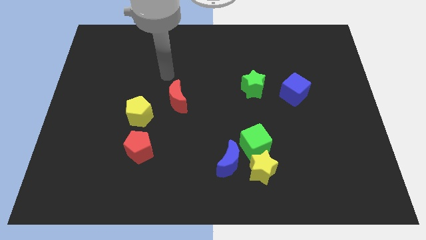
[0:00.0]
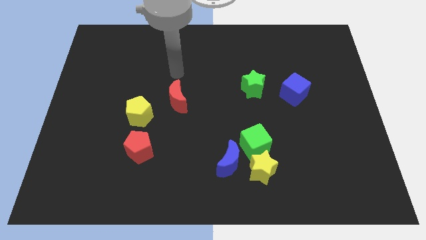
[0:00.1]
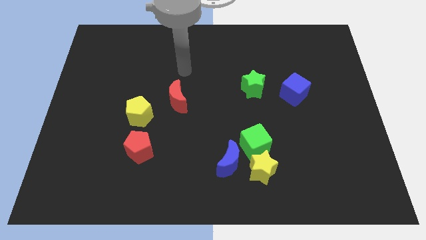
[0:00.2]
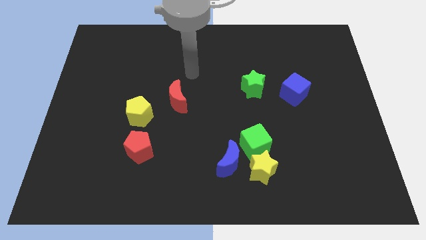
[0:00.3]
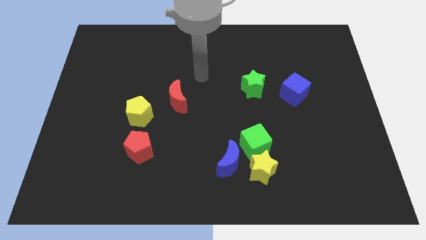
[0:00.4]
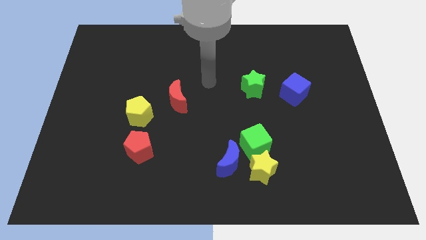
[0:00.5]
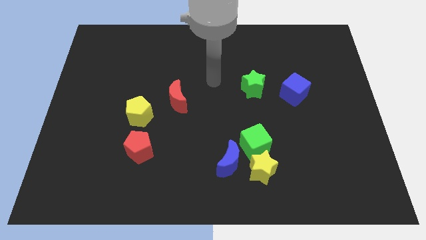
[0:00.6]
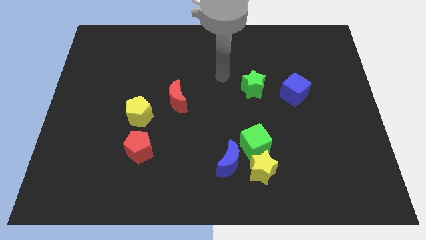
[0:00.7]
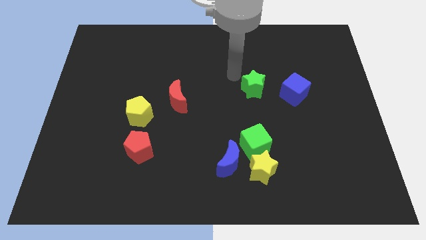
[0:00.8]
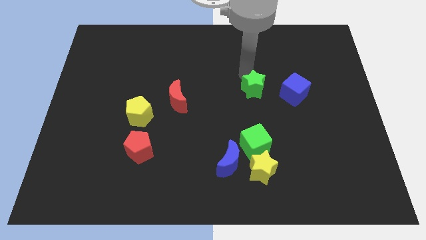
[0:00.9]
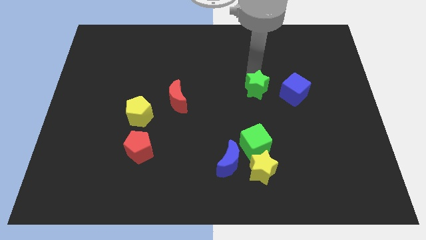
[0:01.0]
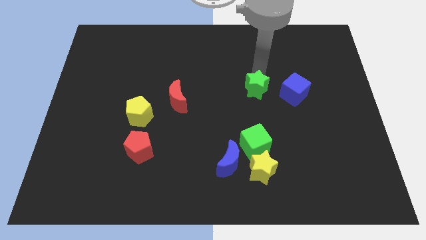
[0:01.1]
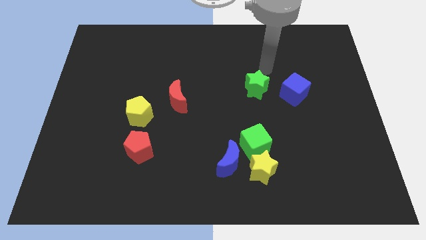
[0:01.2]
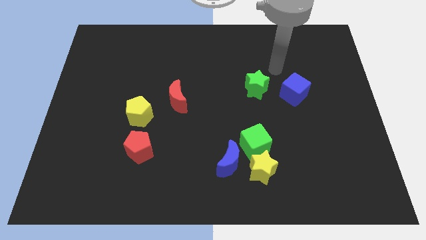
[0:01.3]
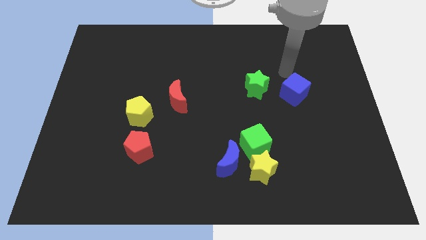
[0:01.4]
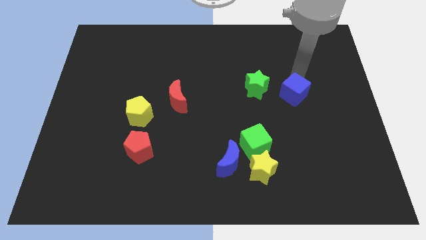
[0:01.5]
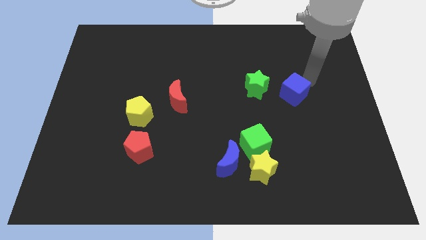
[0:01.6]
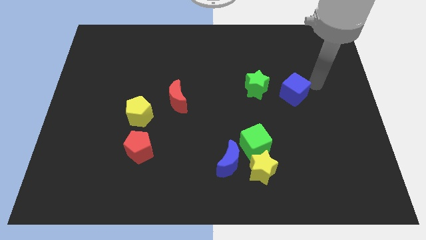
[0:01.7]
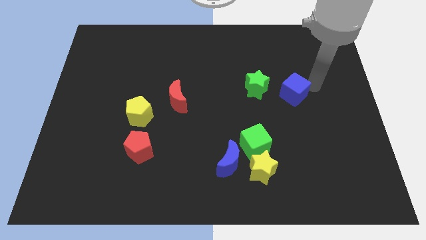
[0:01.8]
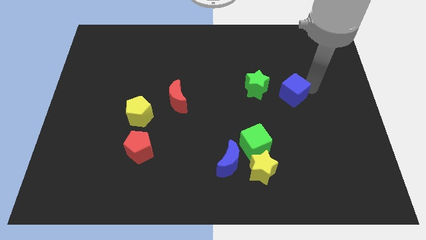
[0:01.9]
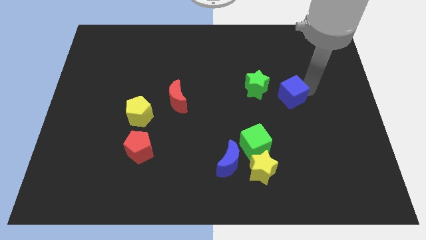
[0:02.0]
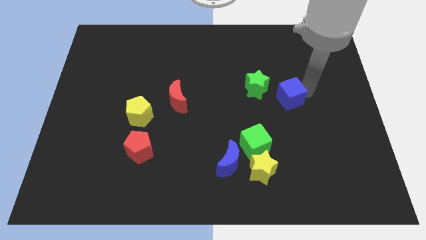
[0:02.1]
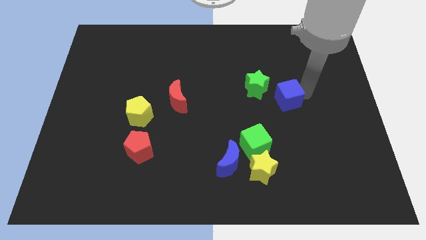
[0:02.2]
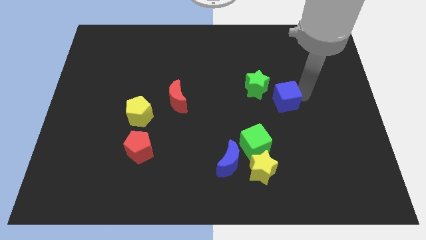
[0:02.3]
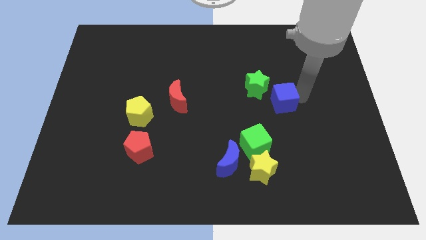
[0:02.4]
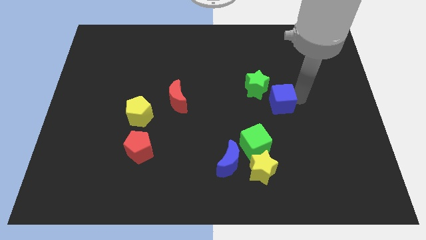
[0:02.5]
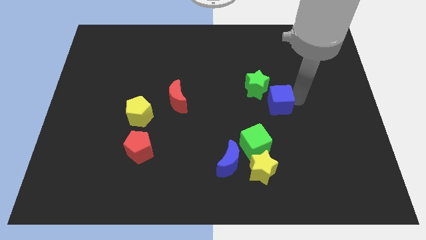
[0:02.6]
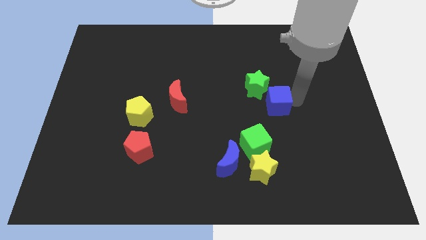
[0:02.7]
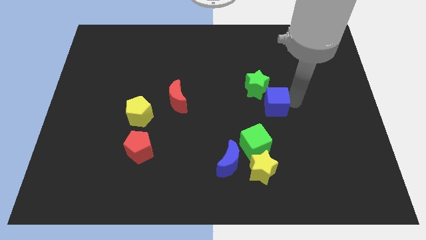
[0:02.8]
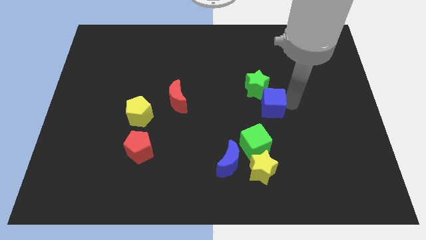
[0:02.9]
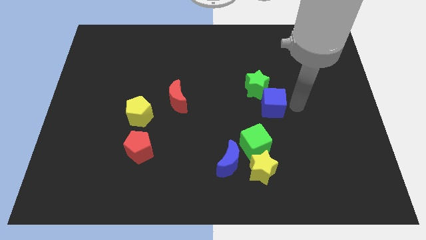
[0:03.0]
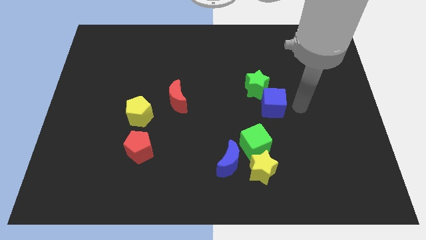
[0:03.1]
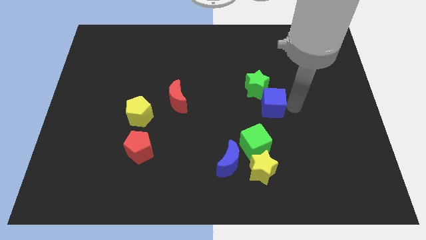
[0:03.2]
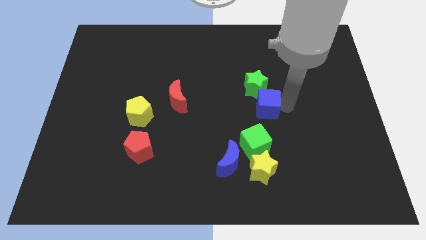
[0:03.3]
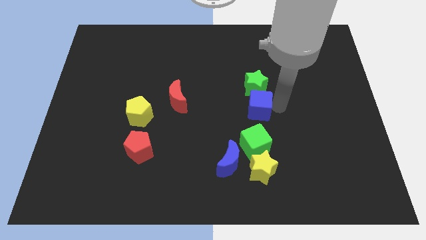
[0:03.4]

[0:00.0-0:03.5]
slightly move the blue cube left

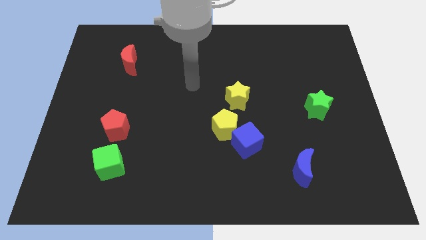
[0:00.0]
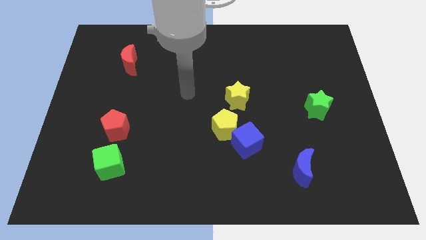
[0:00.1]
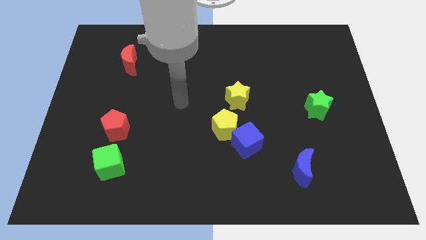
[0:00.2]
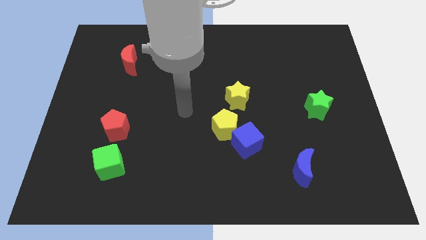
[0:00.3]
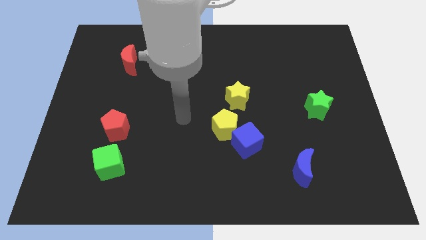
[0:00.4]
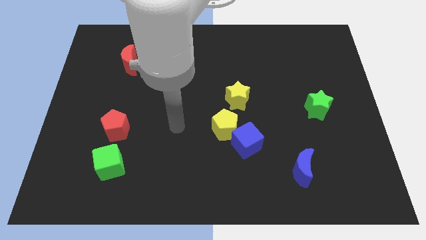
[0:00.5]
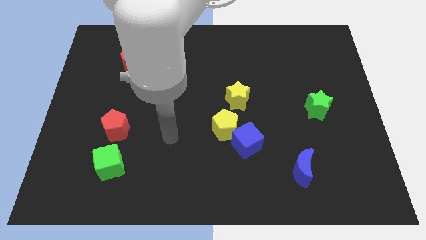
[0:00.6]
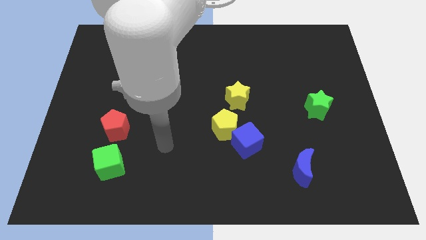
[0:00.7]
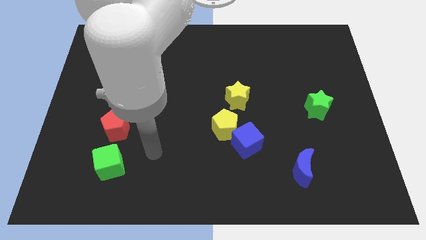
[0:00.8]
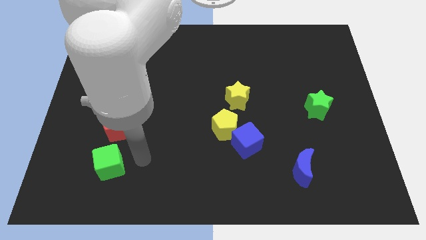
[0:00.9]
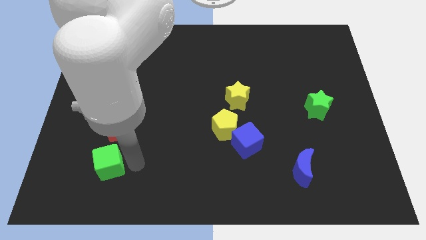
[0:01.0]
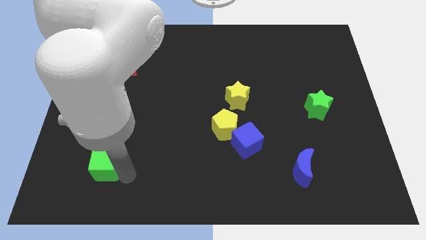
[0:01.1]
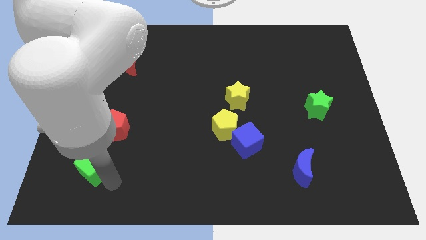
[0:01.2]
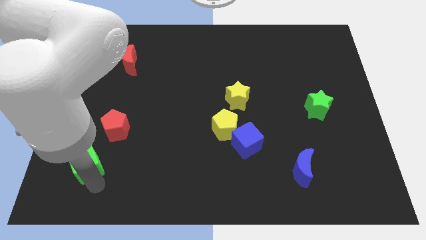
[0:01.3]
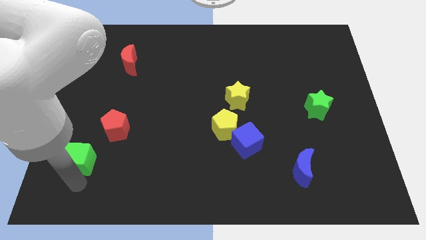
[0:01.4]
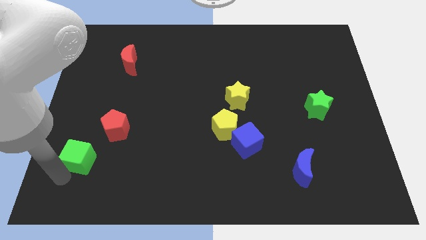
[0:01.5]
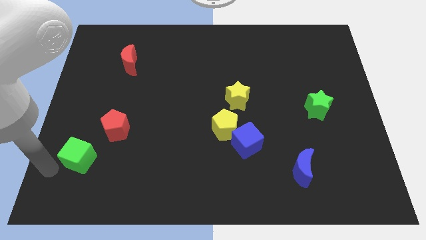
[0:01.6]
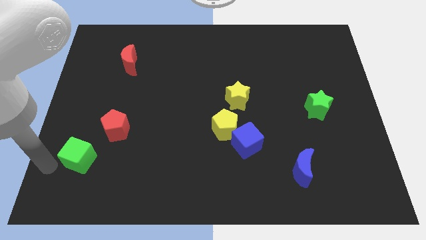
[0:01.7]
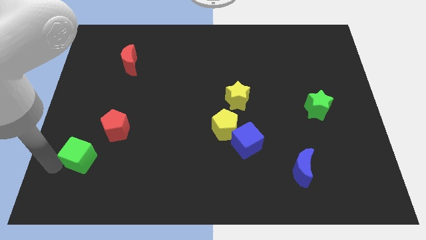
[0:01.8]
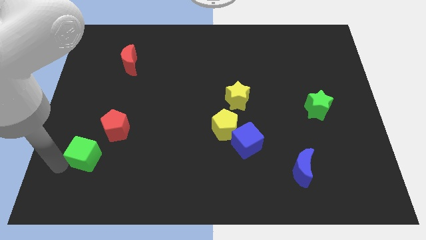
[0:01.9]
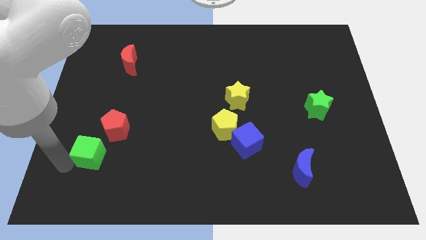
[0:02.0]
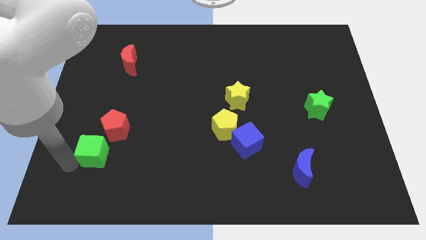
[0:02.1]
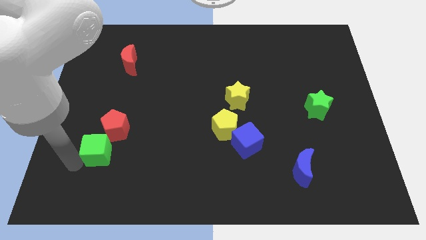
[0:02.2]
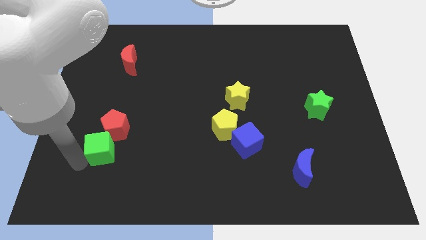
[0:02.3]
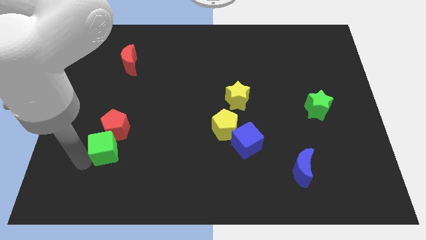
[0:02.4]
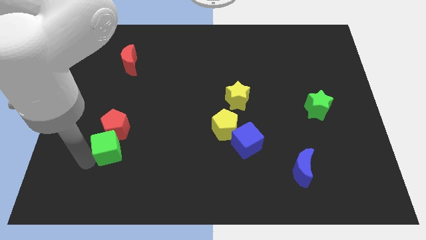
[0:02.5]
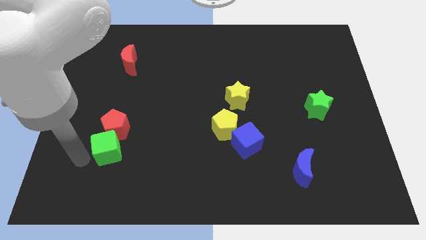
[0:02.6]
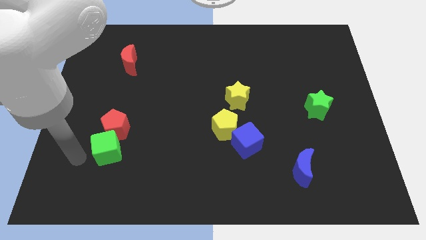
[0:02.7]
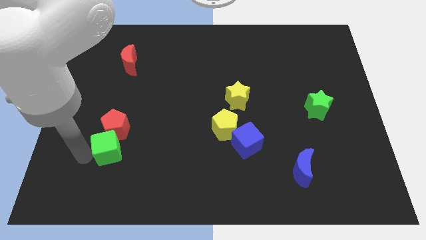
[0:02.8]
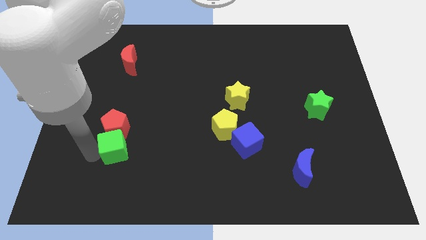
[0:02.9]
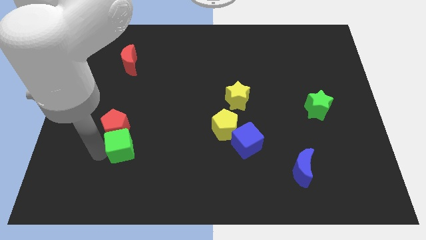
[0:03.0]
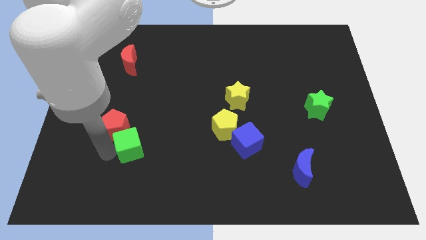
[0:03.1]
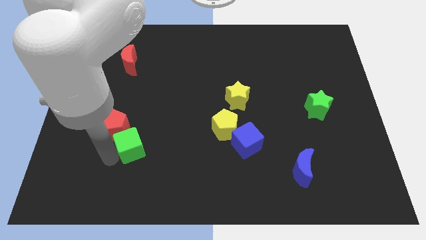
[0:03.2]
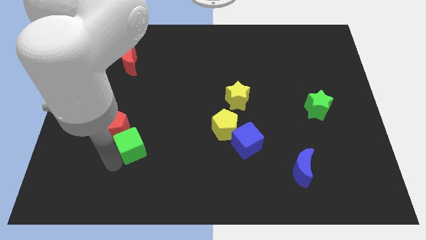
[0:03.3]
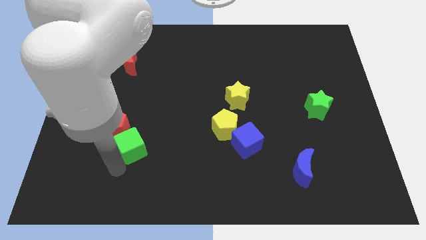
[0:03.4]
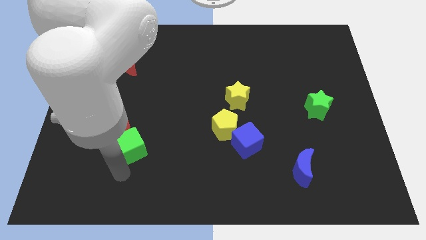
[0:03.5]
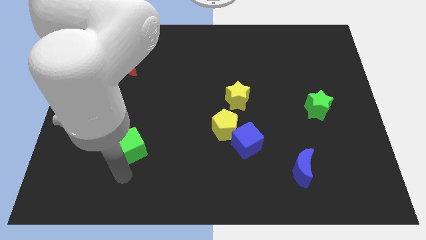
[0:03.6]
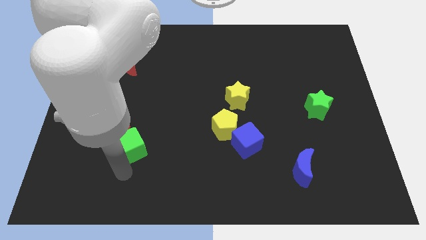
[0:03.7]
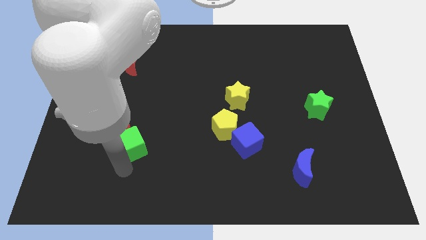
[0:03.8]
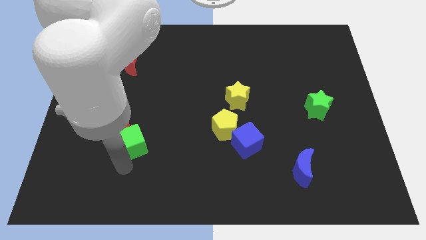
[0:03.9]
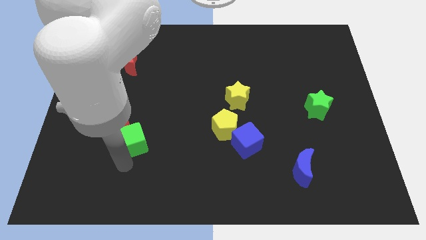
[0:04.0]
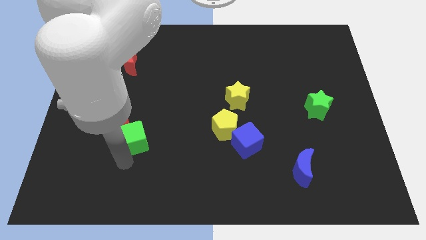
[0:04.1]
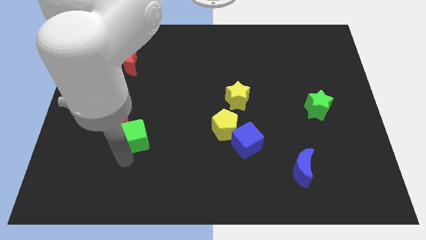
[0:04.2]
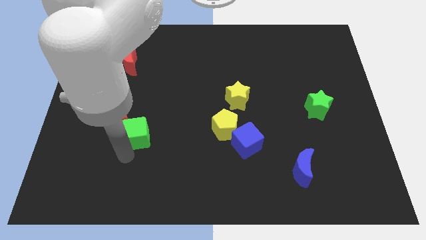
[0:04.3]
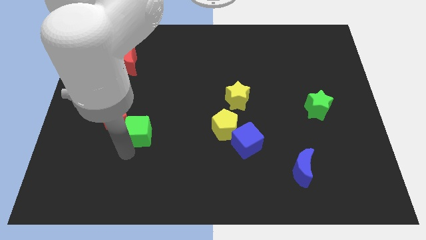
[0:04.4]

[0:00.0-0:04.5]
slide the green cube up somewhat

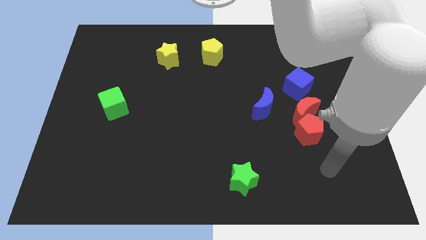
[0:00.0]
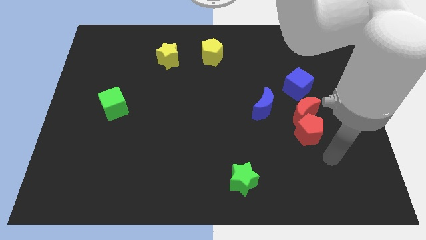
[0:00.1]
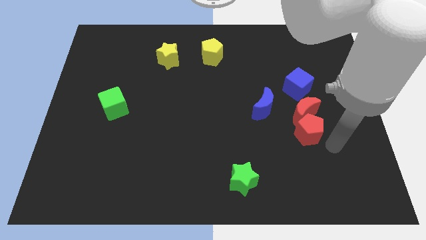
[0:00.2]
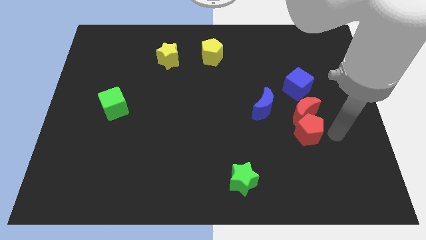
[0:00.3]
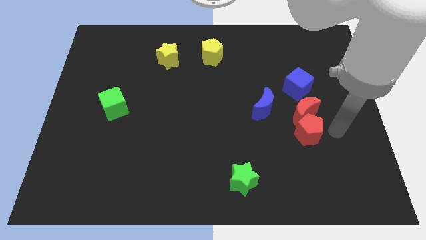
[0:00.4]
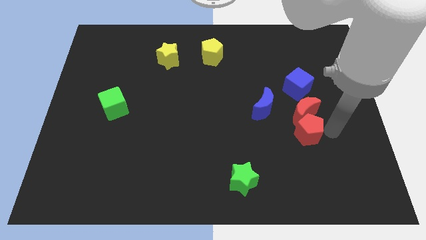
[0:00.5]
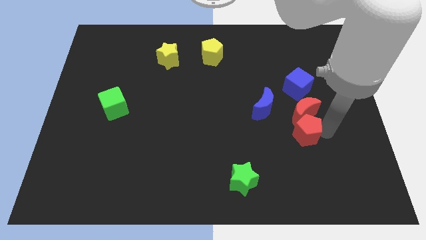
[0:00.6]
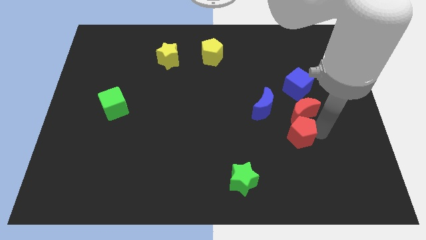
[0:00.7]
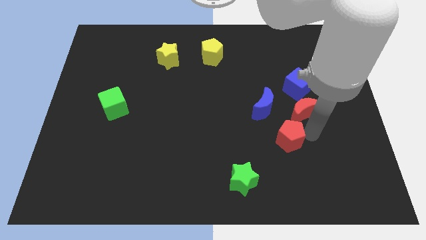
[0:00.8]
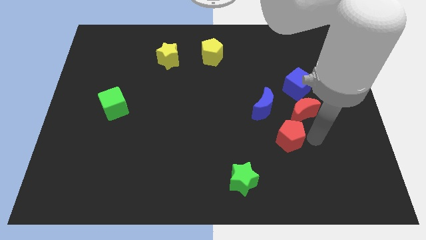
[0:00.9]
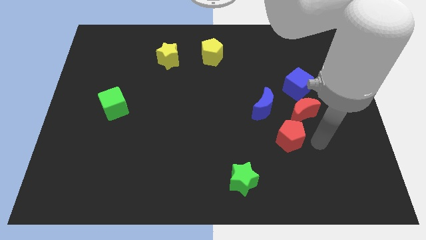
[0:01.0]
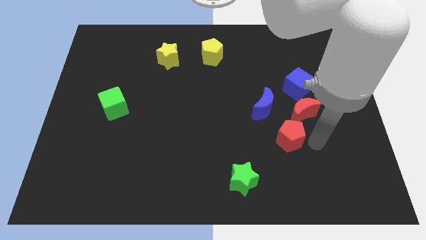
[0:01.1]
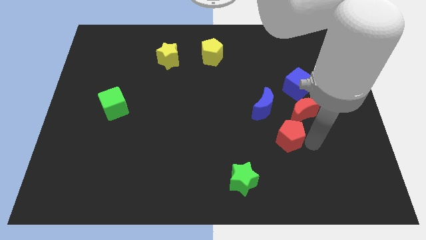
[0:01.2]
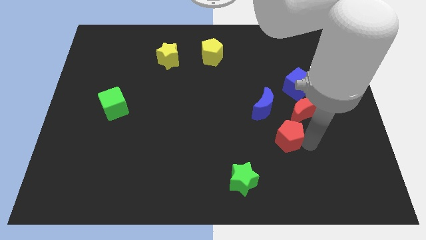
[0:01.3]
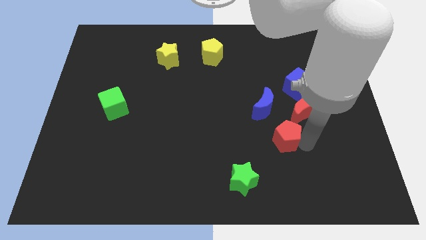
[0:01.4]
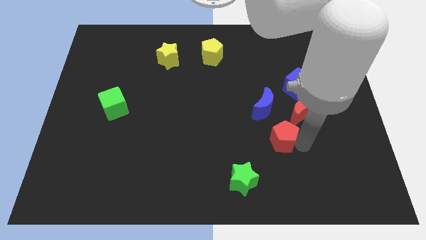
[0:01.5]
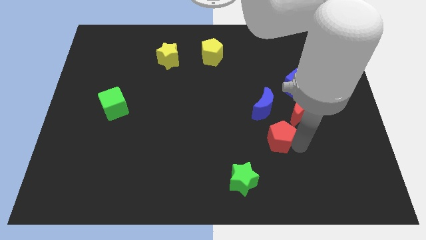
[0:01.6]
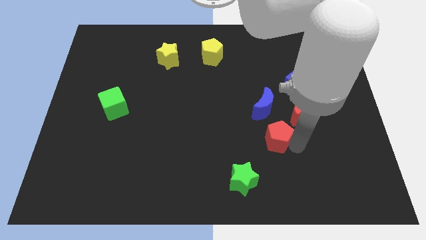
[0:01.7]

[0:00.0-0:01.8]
slightly move the red pentagon to the left
